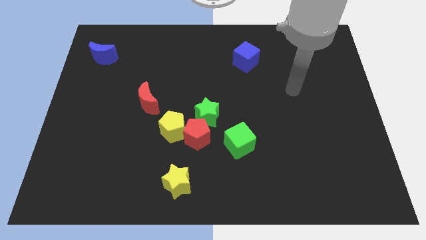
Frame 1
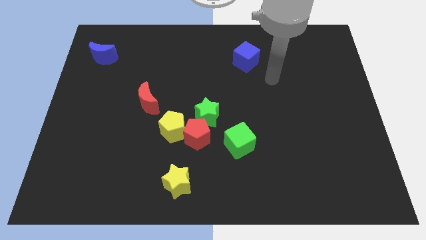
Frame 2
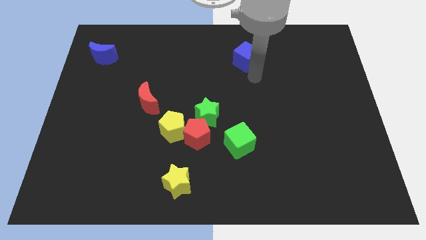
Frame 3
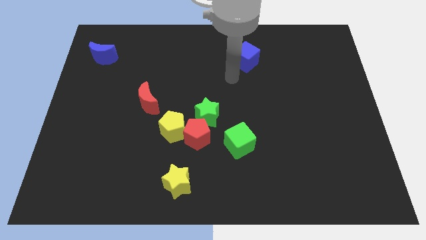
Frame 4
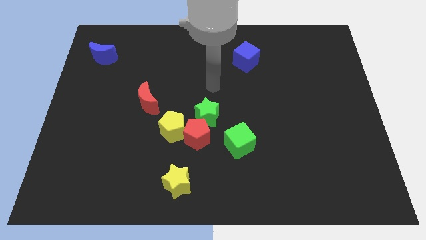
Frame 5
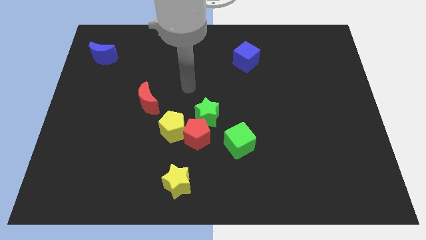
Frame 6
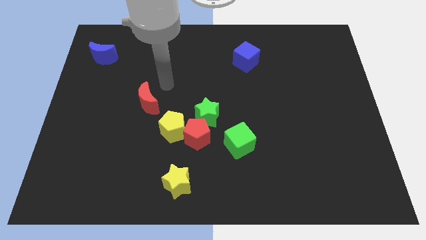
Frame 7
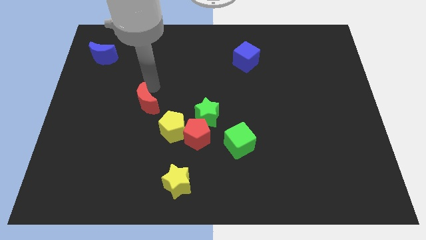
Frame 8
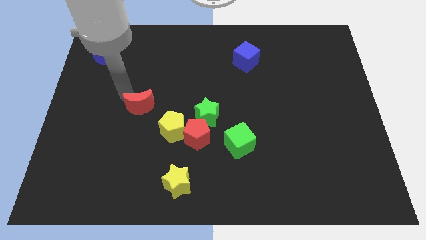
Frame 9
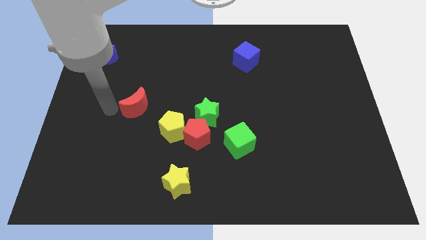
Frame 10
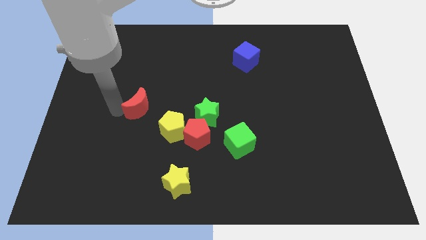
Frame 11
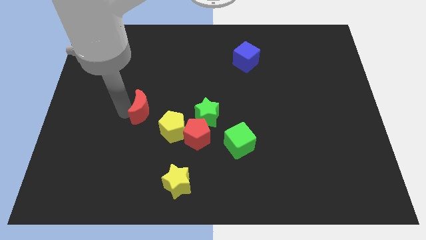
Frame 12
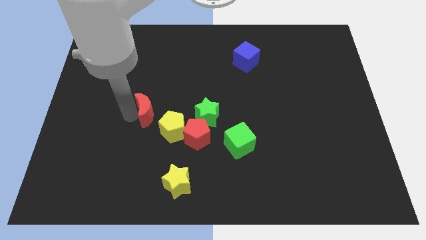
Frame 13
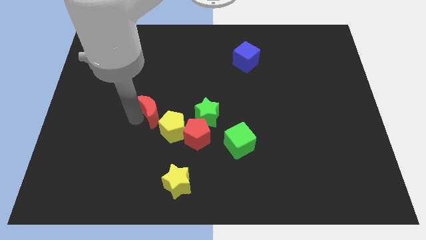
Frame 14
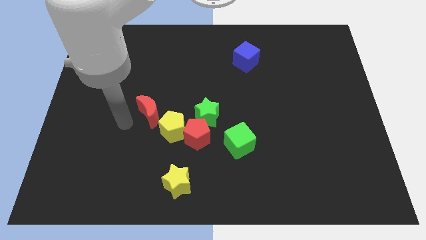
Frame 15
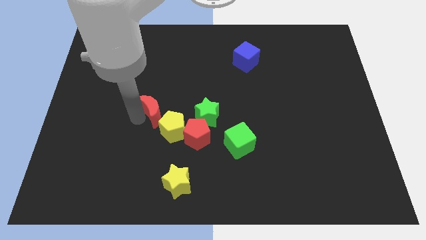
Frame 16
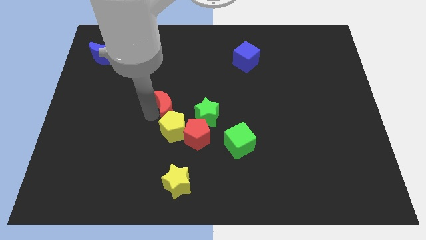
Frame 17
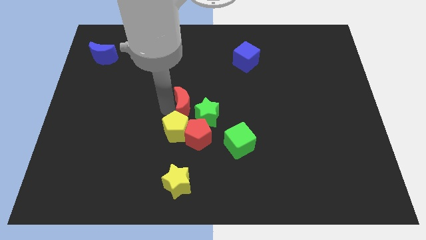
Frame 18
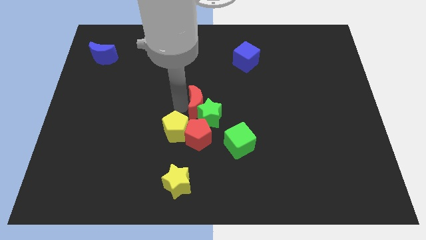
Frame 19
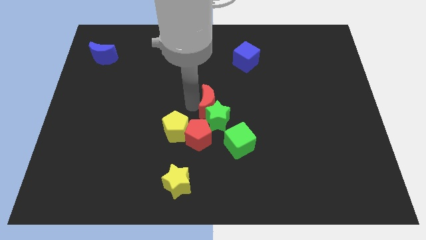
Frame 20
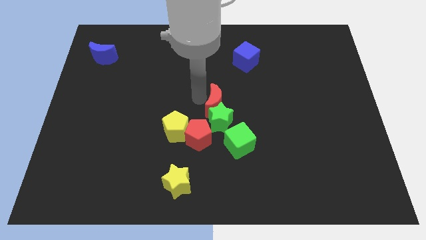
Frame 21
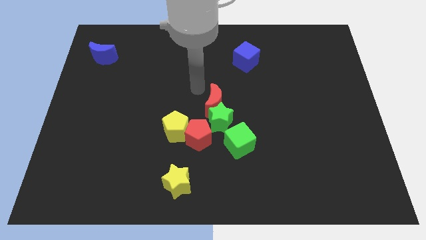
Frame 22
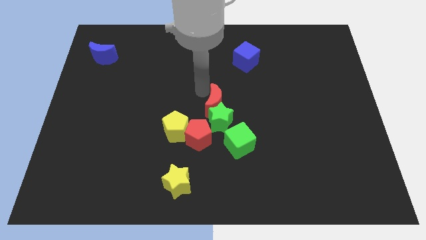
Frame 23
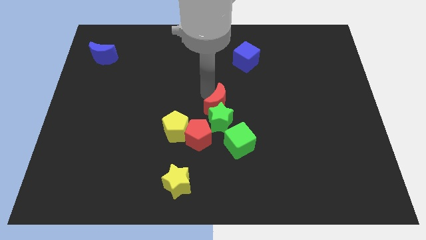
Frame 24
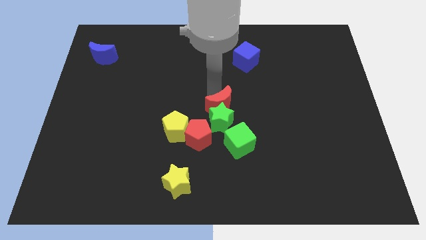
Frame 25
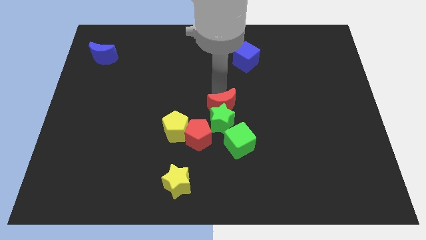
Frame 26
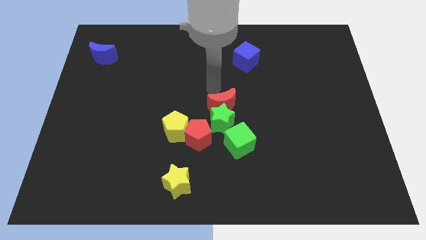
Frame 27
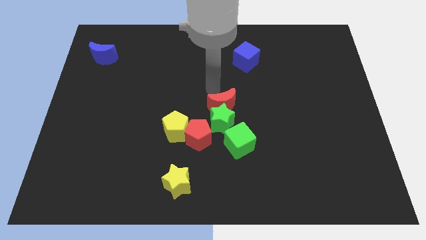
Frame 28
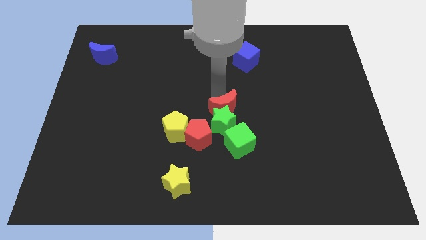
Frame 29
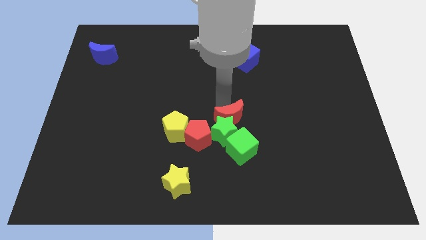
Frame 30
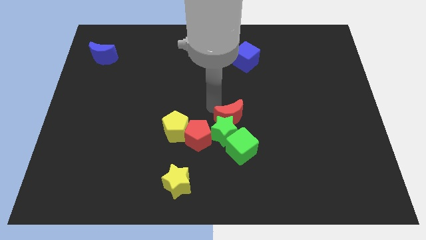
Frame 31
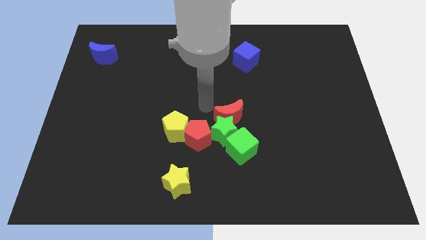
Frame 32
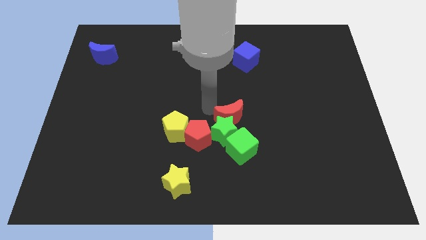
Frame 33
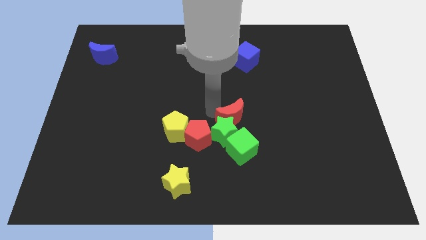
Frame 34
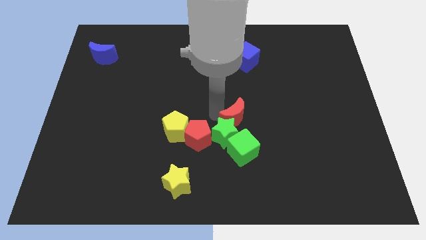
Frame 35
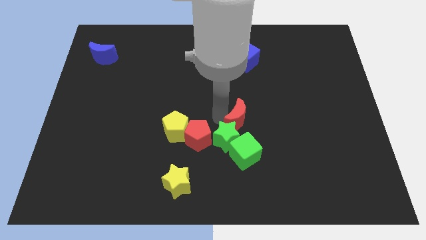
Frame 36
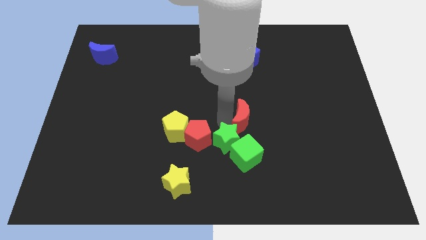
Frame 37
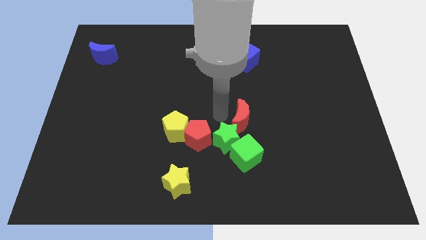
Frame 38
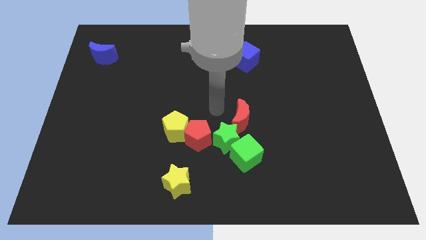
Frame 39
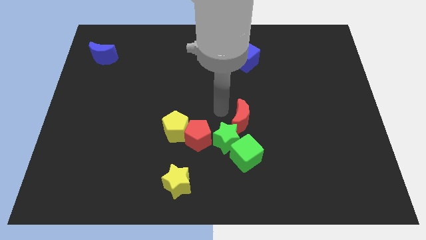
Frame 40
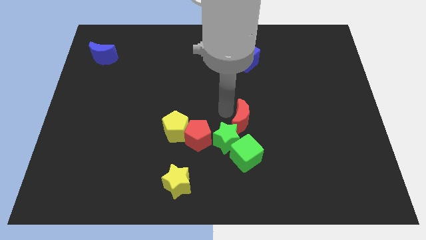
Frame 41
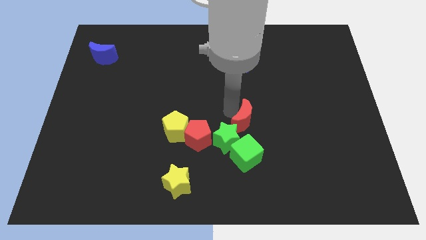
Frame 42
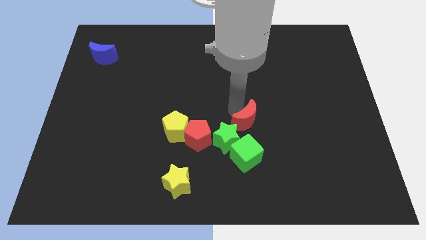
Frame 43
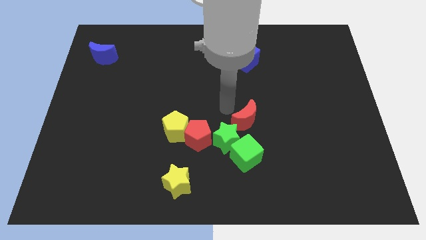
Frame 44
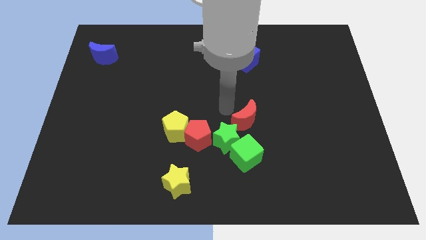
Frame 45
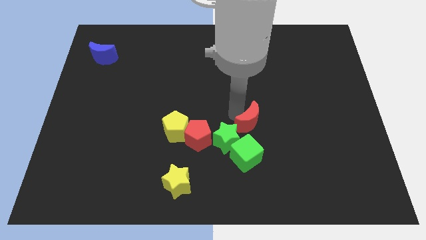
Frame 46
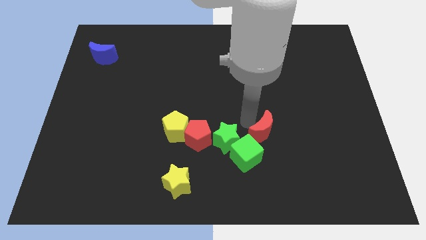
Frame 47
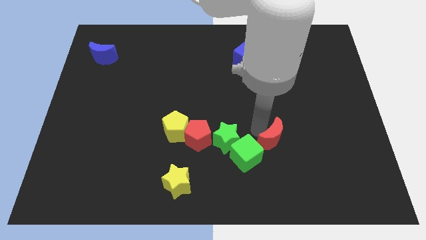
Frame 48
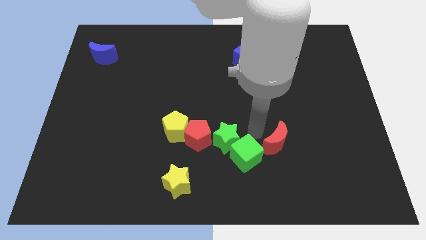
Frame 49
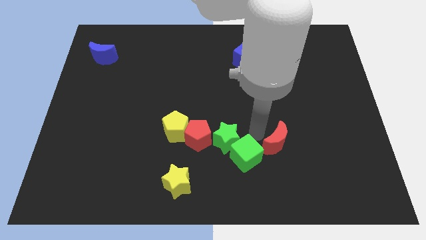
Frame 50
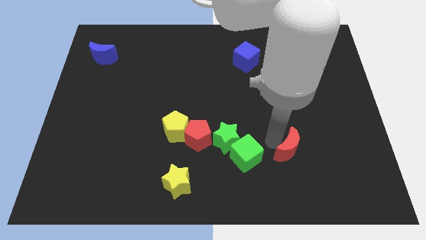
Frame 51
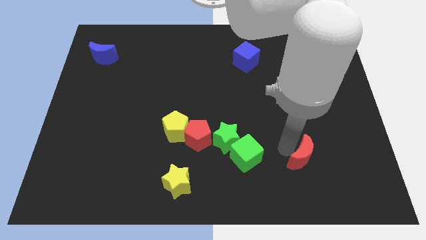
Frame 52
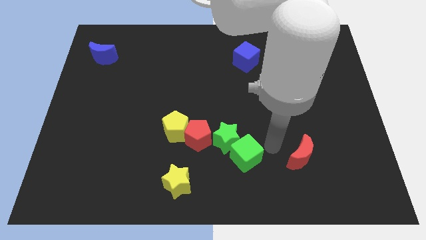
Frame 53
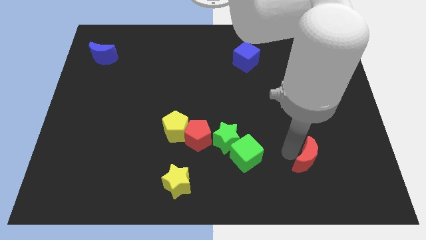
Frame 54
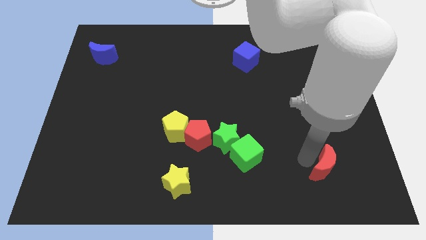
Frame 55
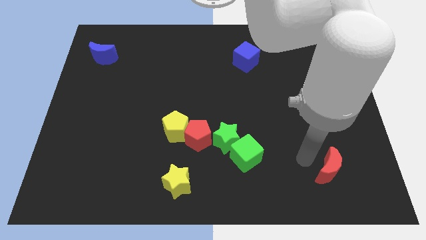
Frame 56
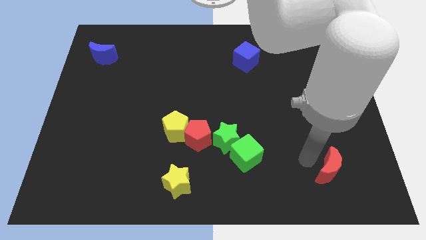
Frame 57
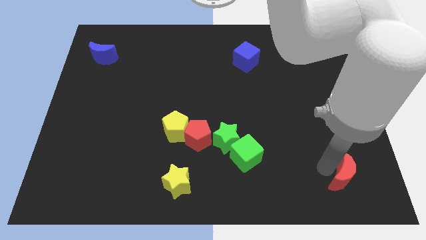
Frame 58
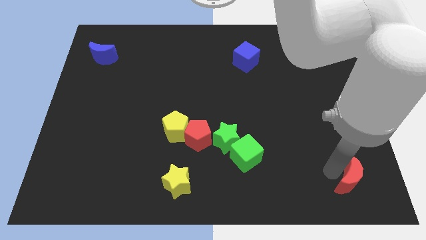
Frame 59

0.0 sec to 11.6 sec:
put the red moon to the bottom right corner

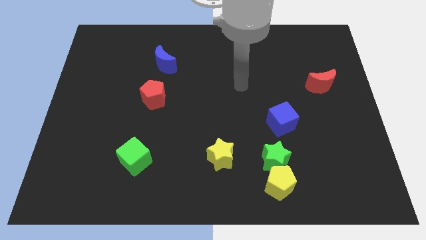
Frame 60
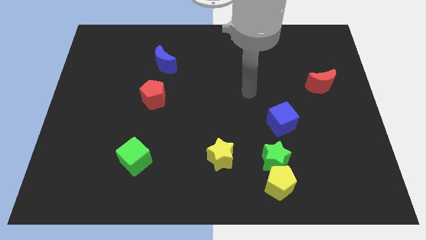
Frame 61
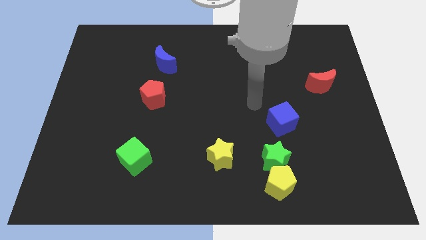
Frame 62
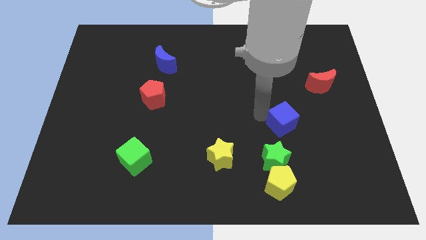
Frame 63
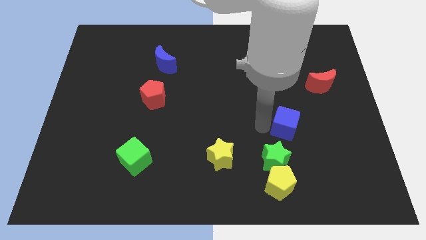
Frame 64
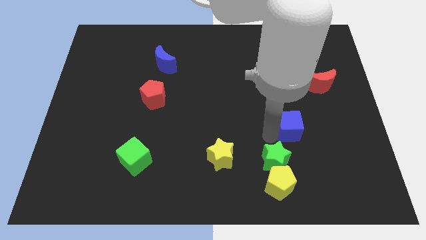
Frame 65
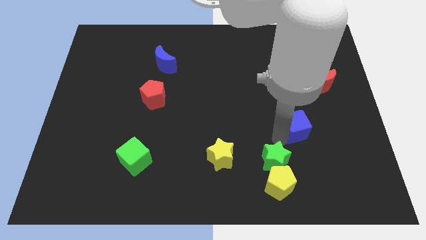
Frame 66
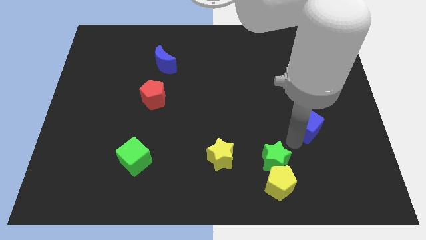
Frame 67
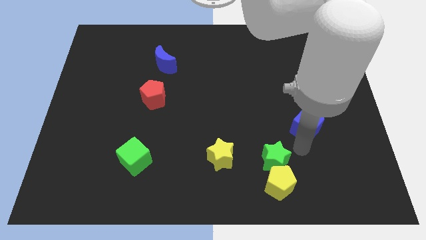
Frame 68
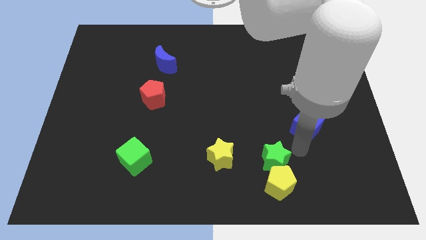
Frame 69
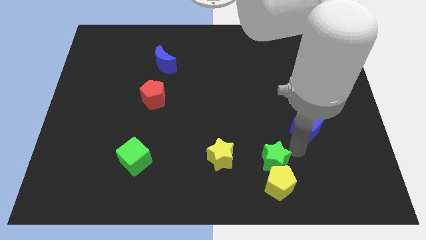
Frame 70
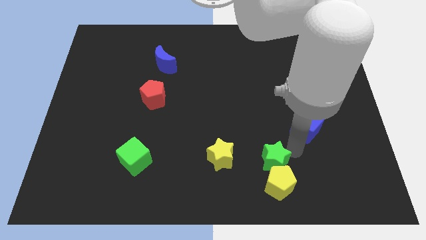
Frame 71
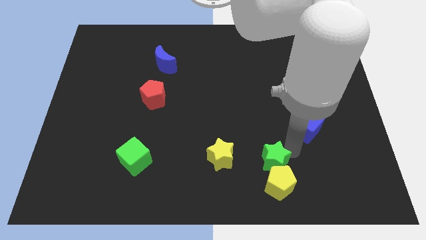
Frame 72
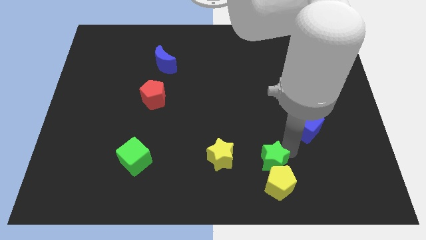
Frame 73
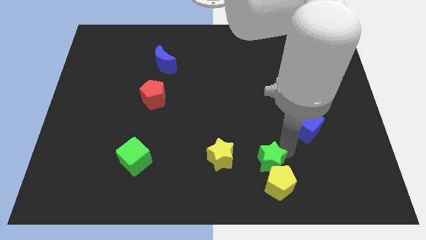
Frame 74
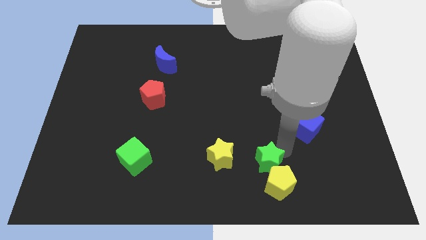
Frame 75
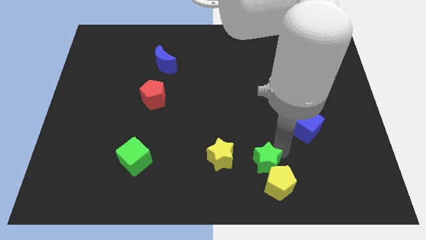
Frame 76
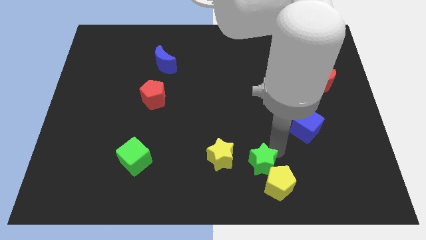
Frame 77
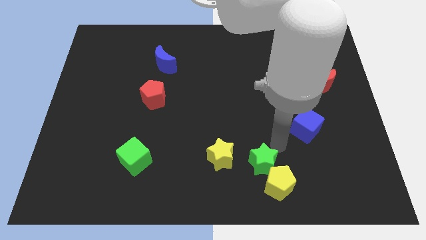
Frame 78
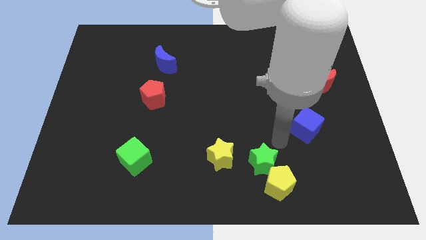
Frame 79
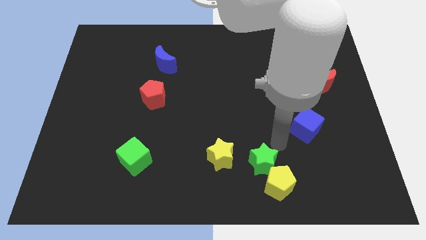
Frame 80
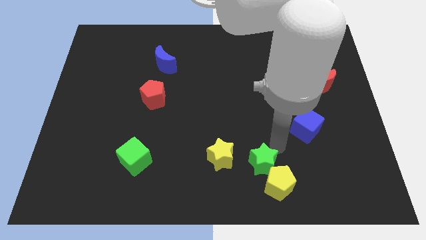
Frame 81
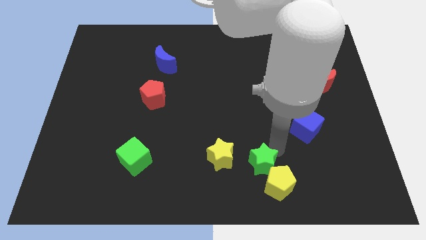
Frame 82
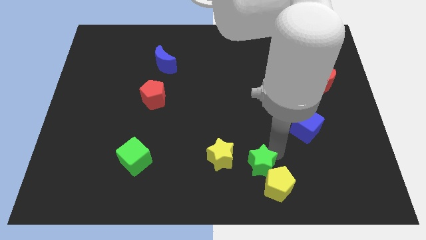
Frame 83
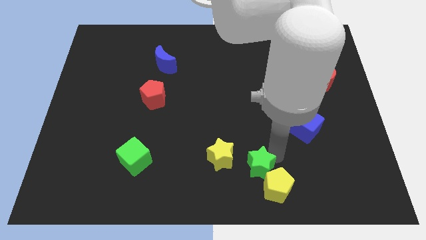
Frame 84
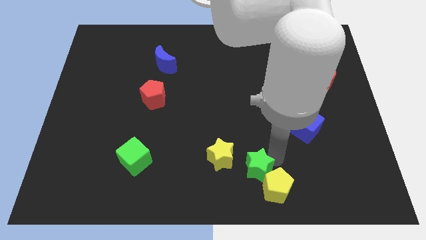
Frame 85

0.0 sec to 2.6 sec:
move the green star to the bottom
